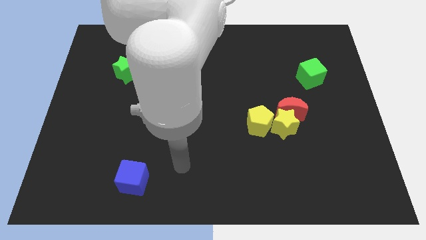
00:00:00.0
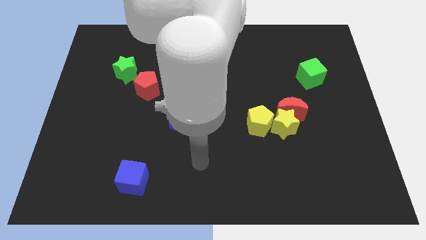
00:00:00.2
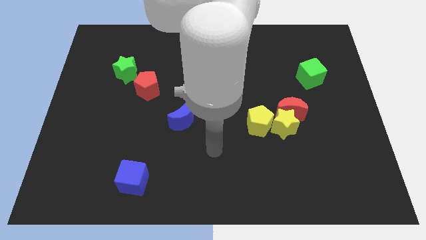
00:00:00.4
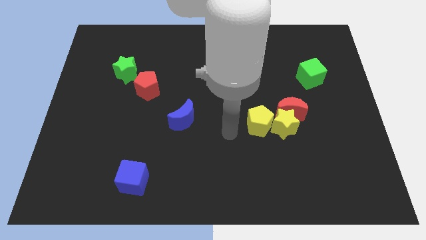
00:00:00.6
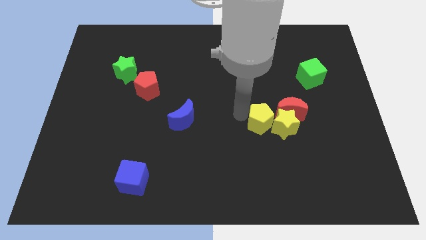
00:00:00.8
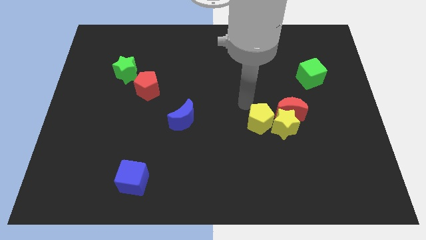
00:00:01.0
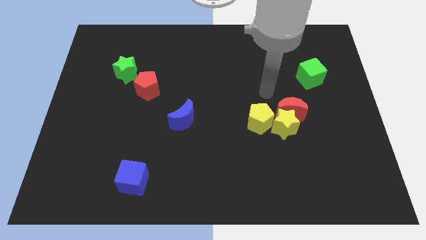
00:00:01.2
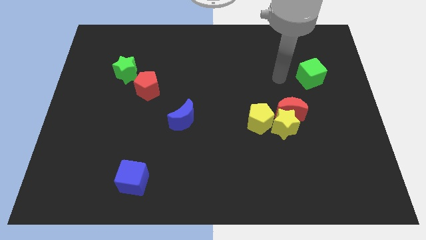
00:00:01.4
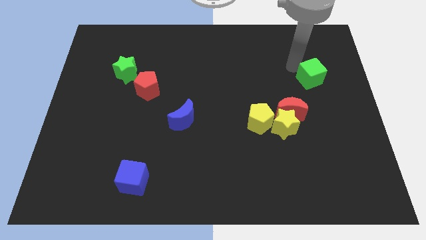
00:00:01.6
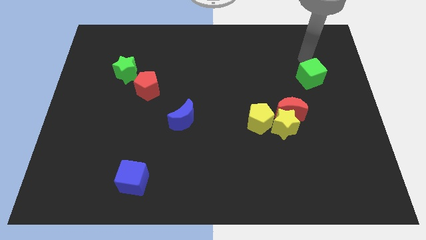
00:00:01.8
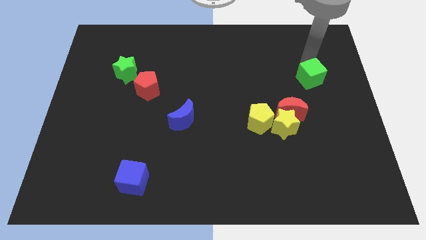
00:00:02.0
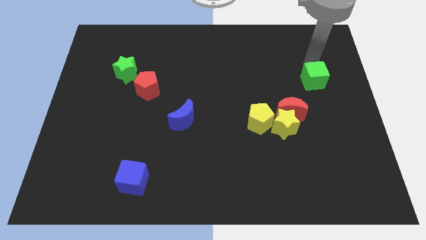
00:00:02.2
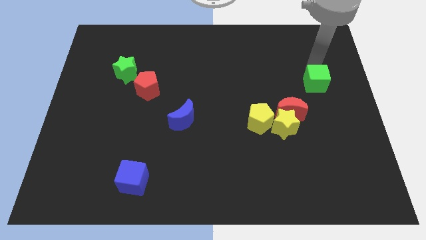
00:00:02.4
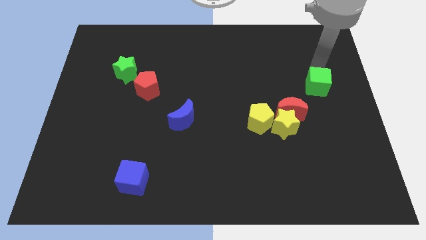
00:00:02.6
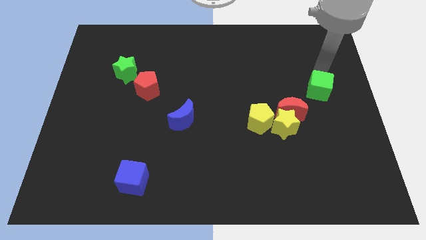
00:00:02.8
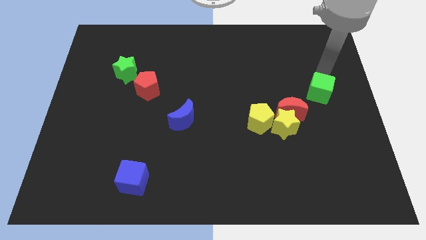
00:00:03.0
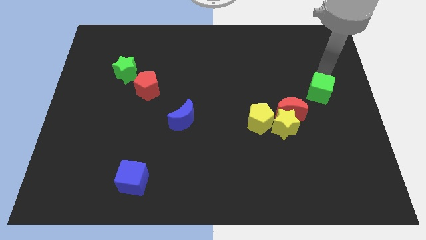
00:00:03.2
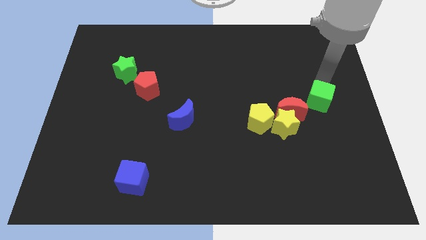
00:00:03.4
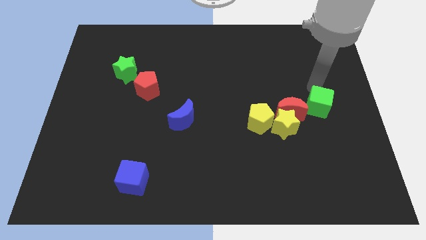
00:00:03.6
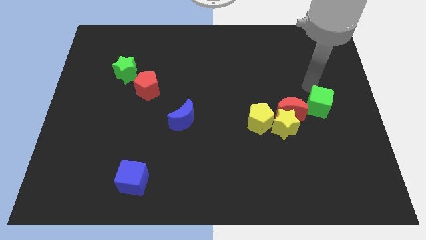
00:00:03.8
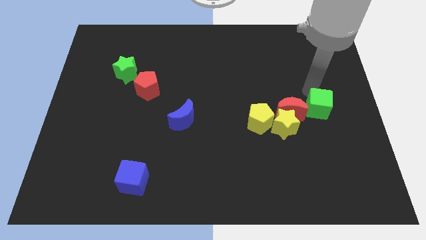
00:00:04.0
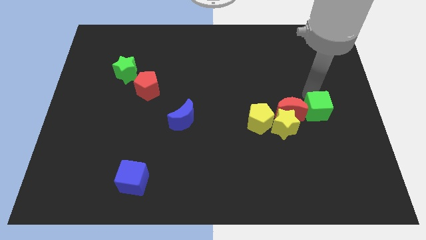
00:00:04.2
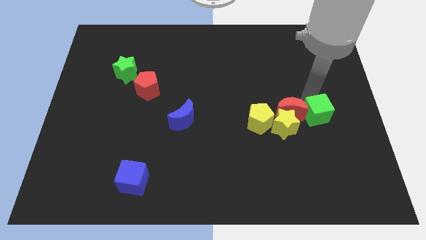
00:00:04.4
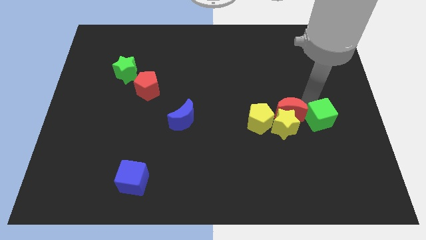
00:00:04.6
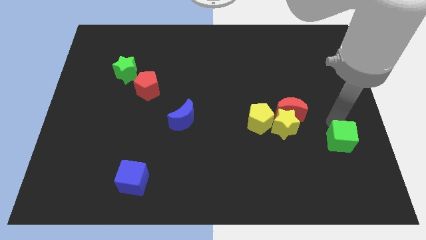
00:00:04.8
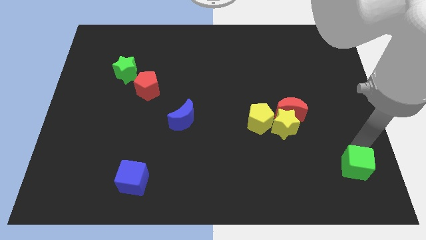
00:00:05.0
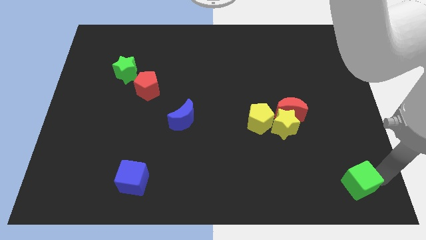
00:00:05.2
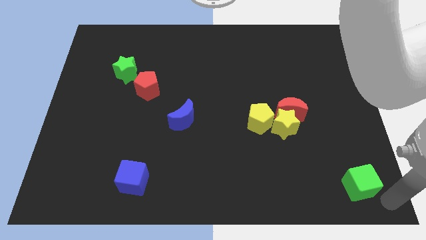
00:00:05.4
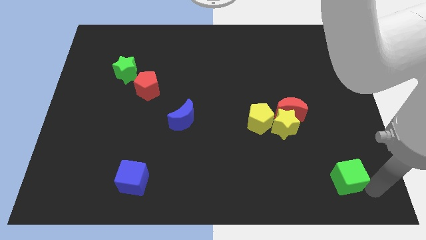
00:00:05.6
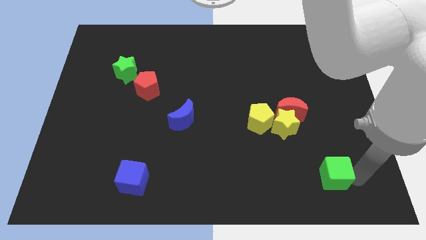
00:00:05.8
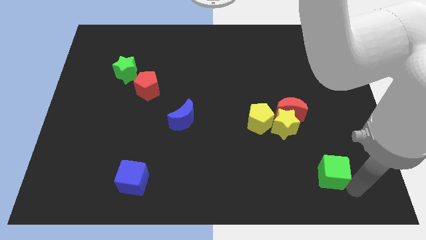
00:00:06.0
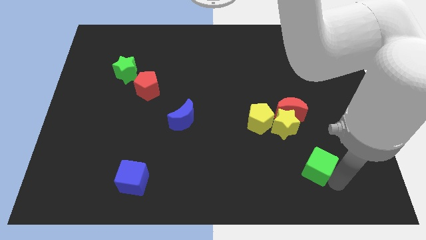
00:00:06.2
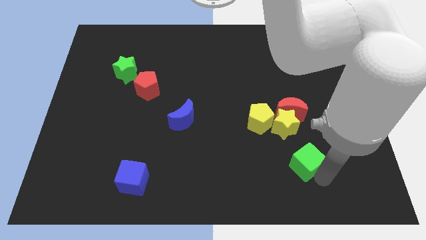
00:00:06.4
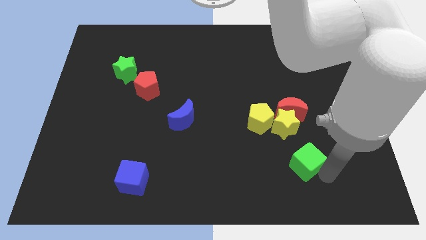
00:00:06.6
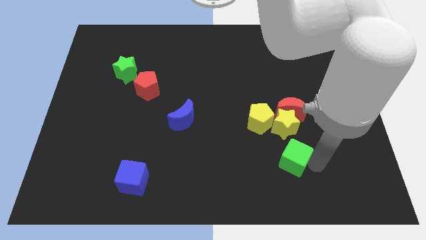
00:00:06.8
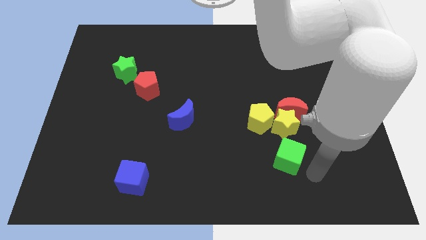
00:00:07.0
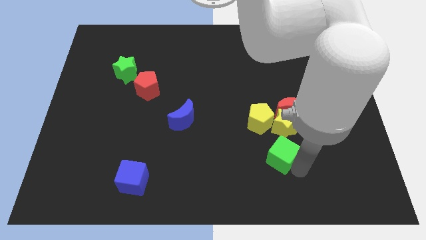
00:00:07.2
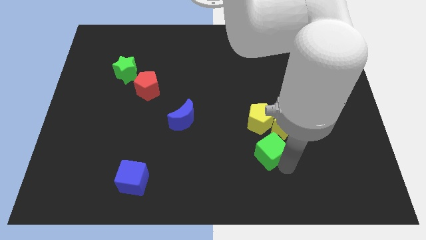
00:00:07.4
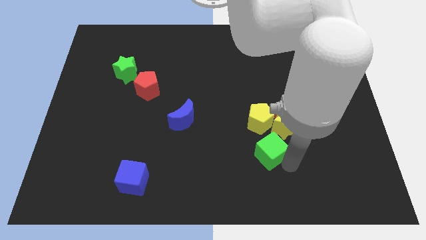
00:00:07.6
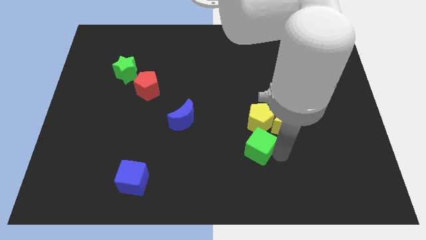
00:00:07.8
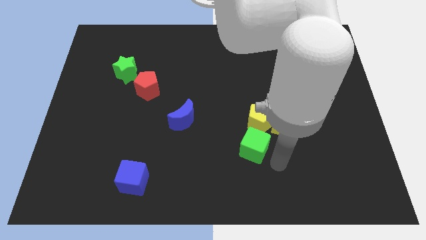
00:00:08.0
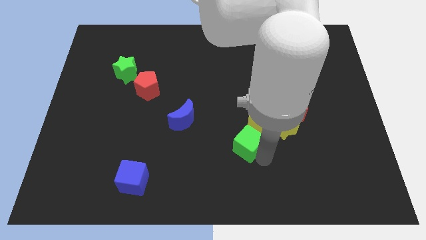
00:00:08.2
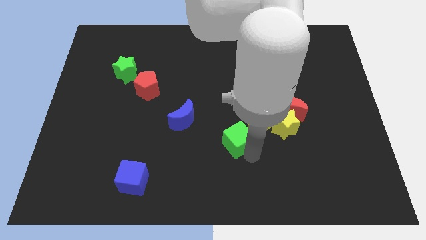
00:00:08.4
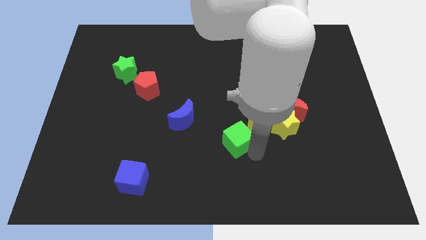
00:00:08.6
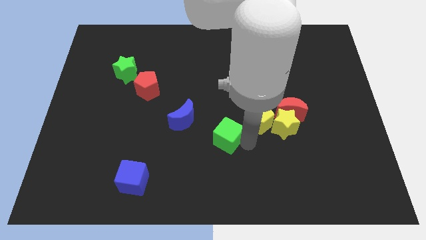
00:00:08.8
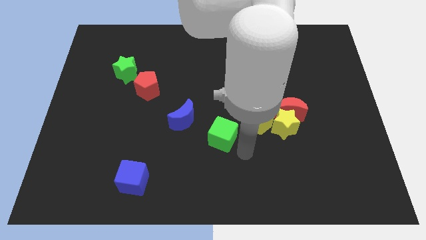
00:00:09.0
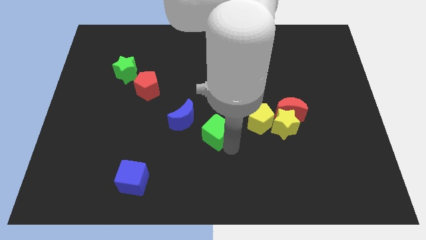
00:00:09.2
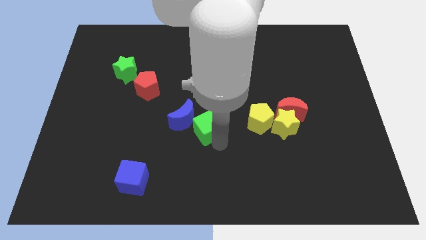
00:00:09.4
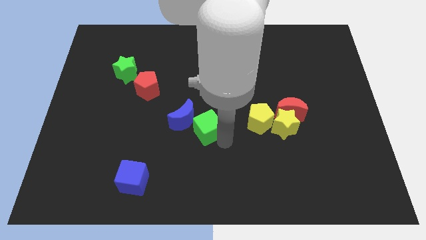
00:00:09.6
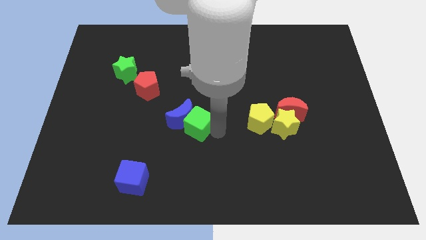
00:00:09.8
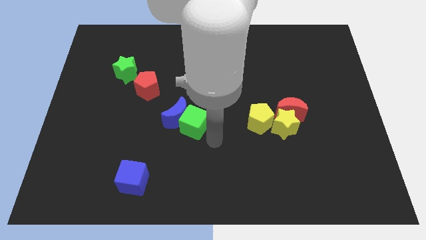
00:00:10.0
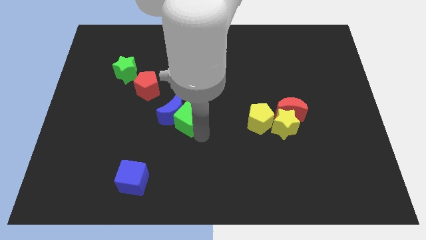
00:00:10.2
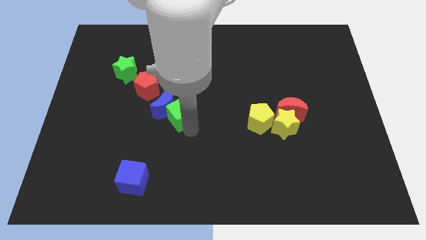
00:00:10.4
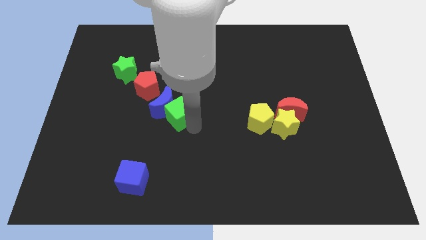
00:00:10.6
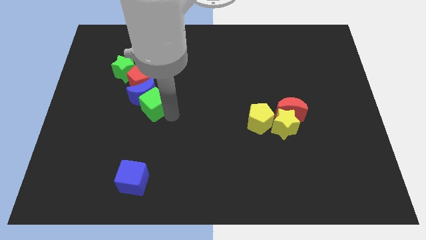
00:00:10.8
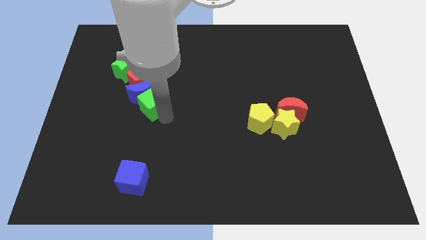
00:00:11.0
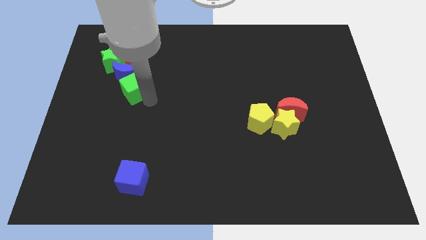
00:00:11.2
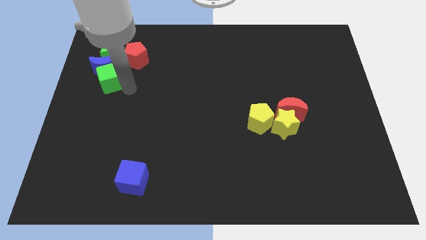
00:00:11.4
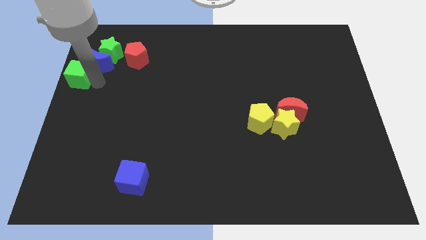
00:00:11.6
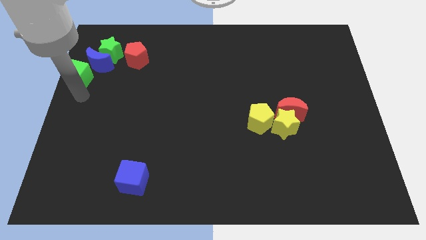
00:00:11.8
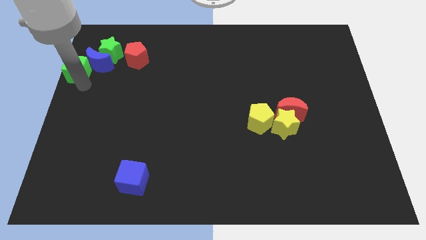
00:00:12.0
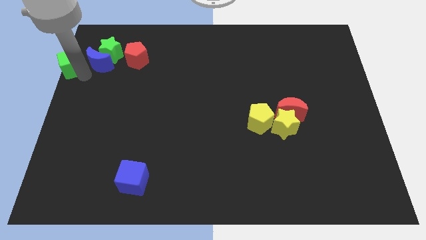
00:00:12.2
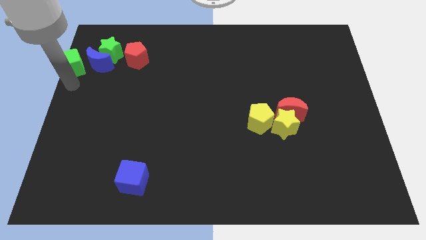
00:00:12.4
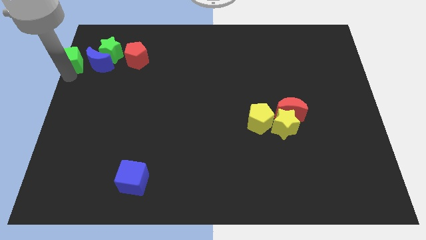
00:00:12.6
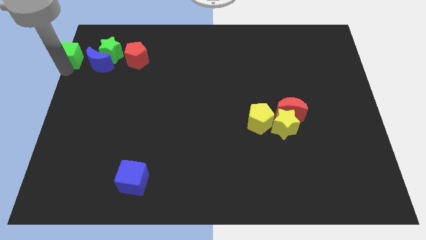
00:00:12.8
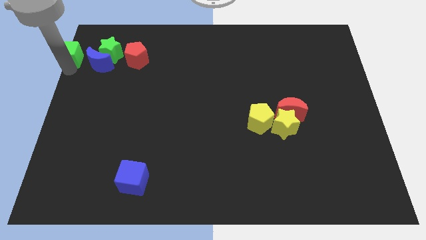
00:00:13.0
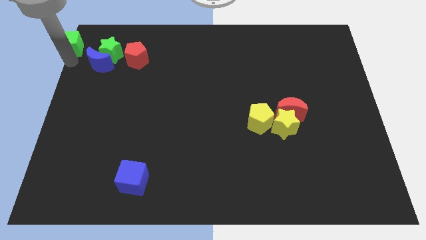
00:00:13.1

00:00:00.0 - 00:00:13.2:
push the green cube to the top left of the board
